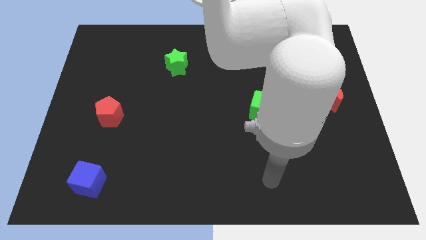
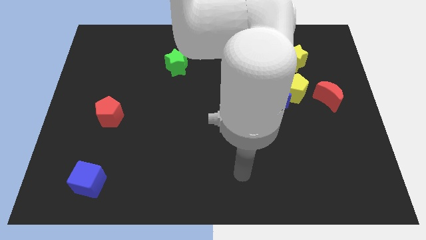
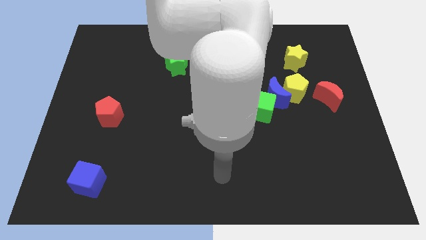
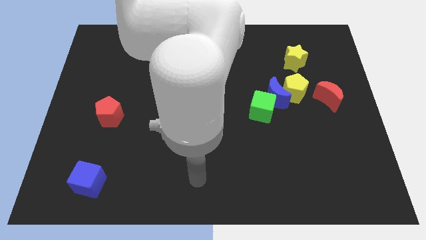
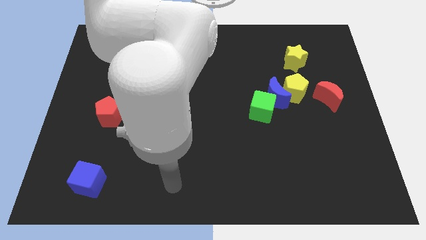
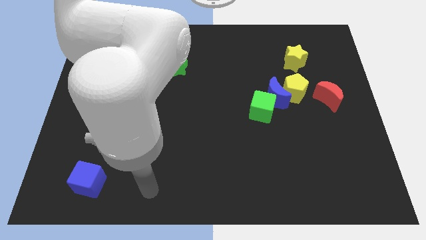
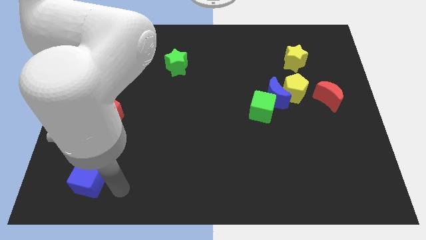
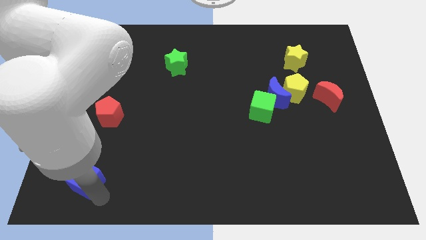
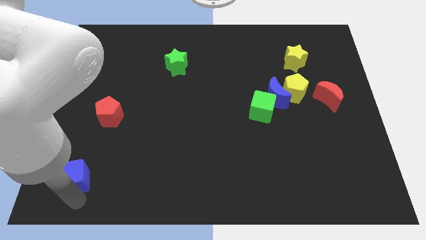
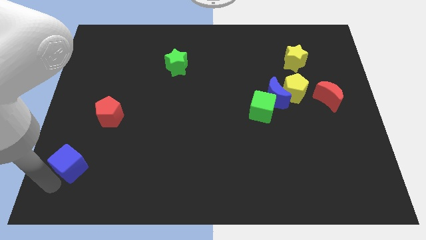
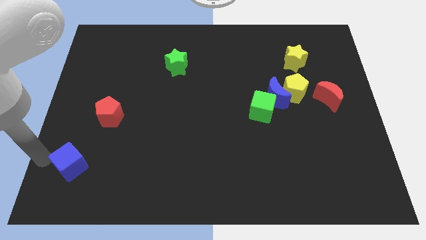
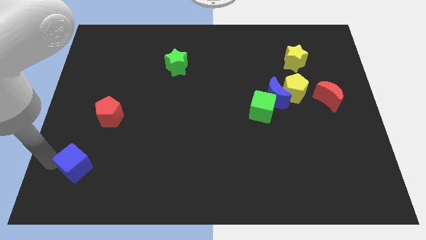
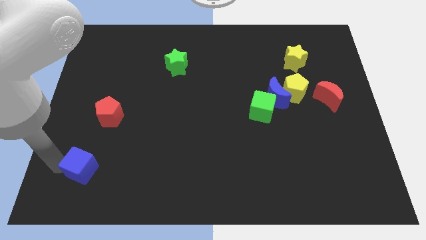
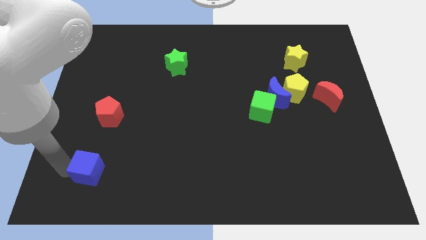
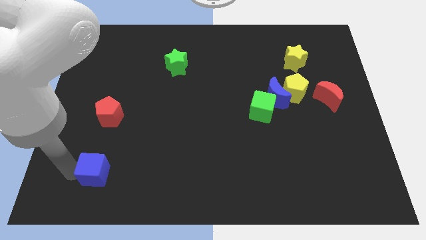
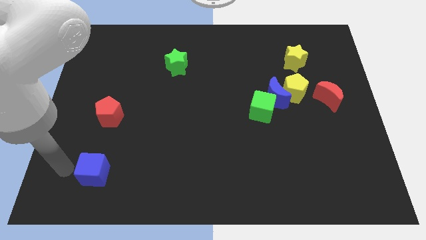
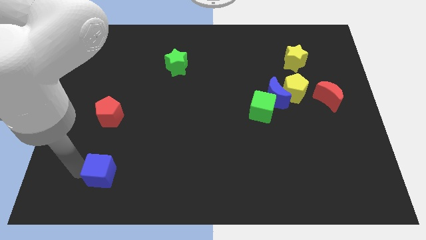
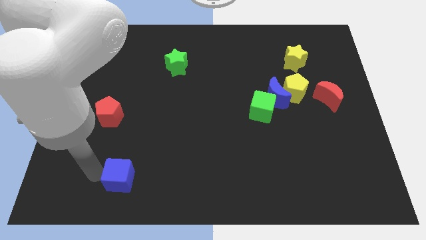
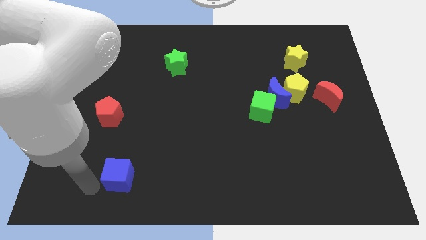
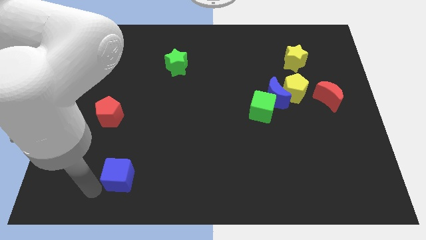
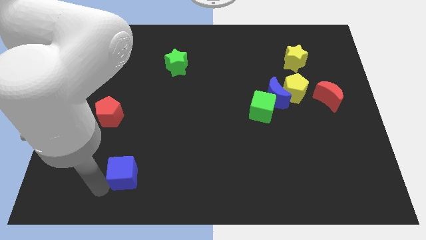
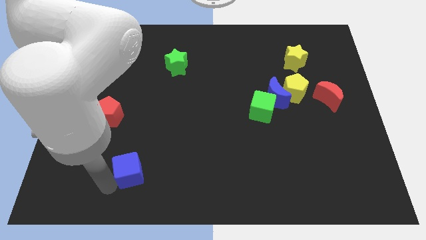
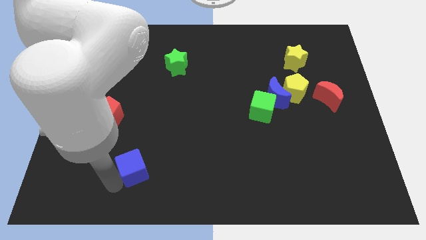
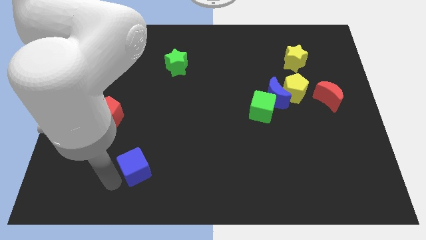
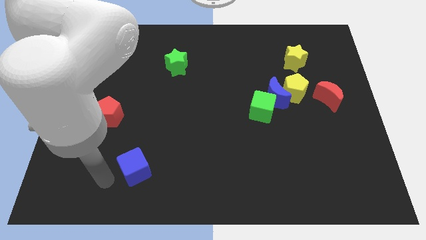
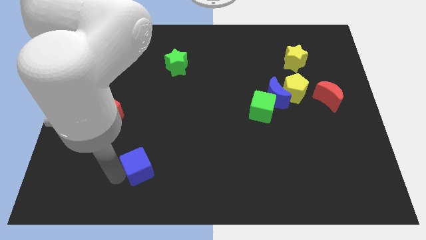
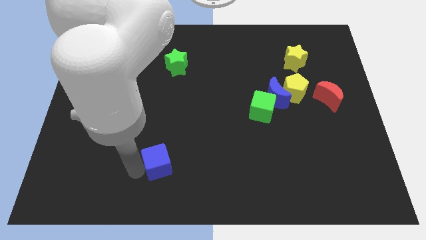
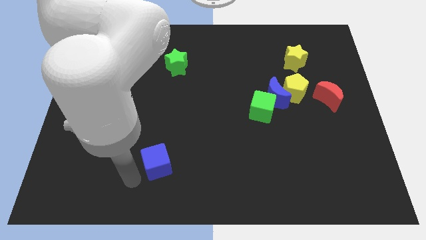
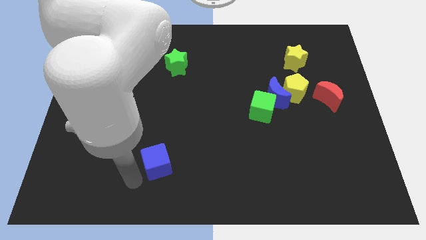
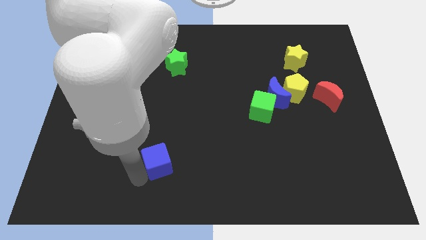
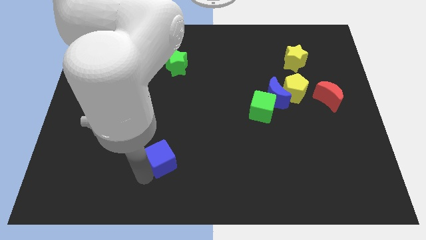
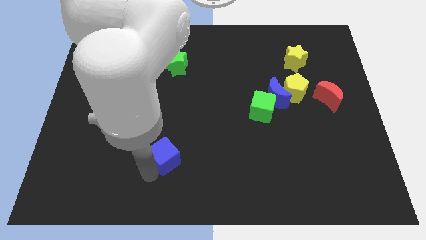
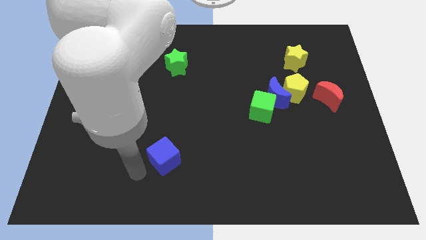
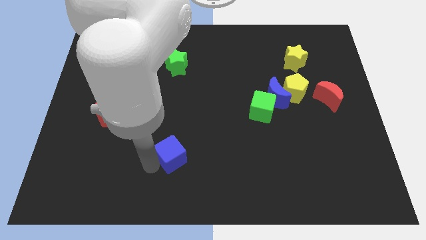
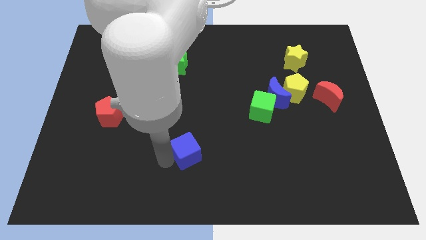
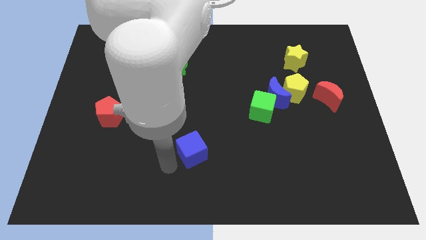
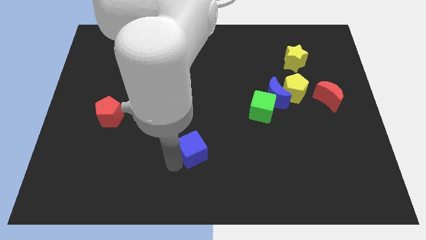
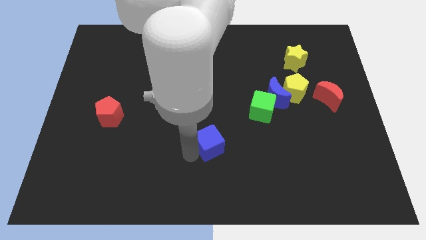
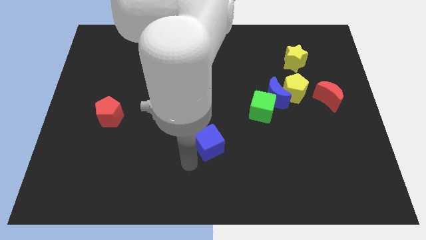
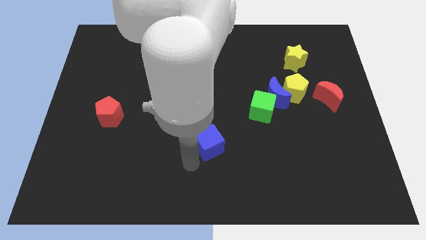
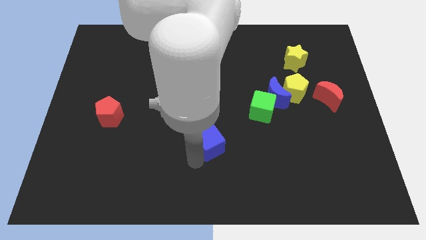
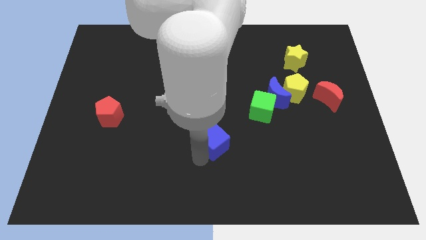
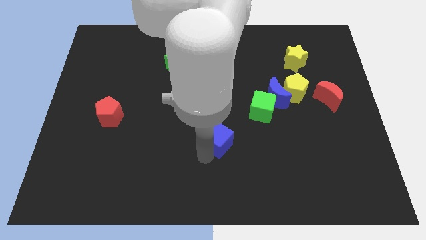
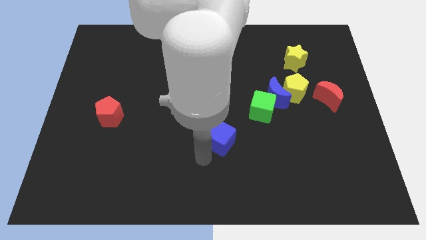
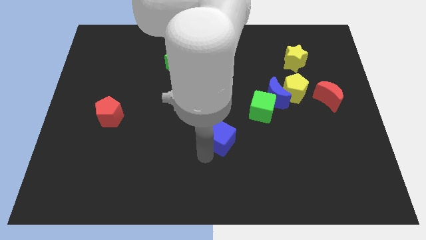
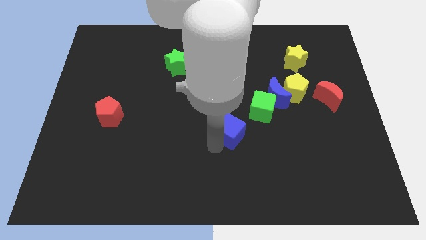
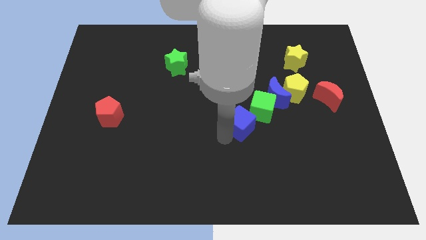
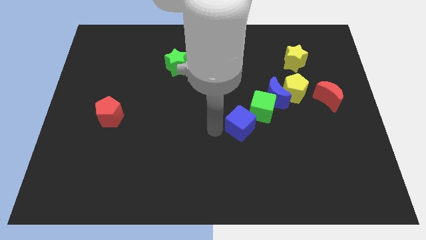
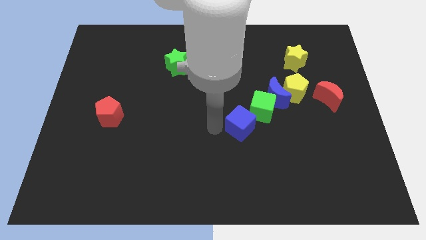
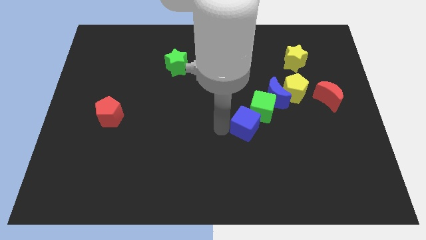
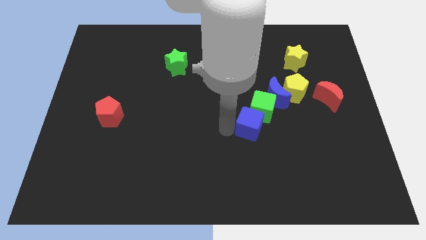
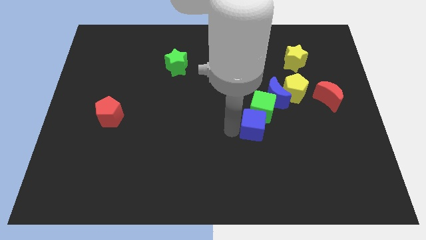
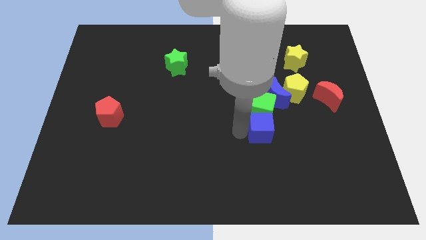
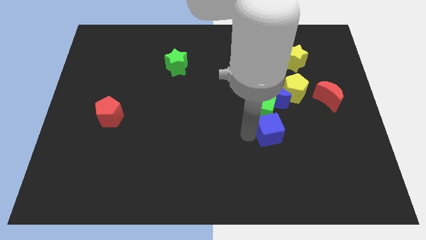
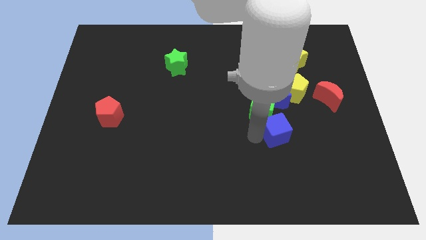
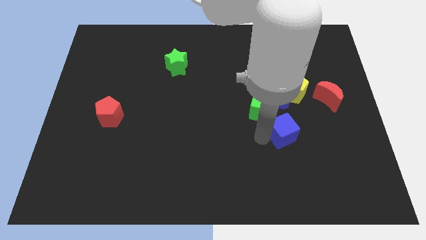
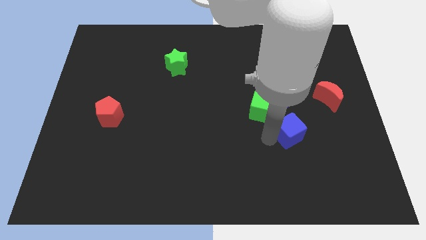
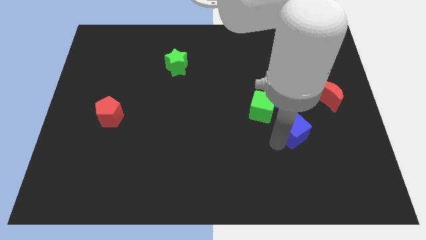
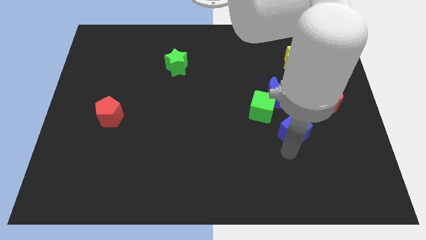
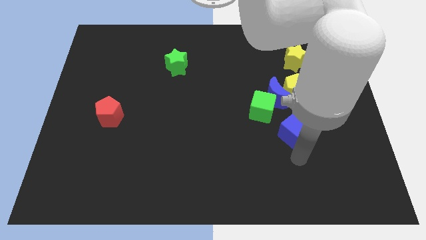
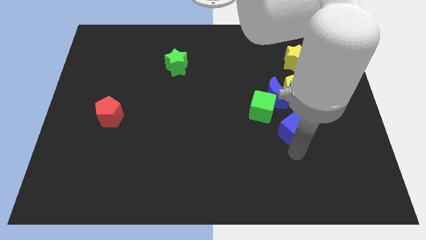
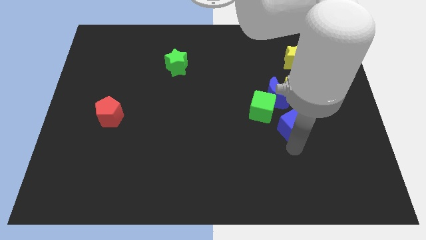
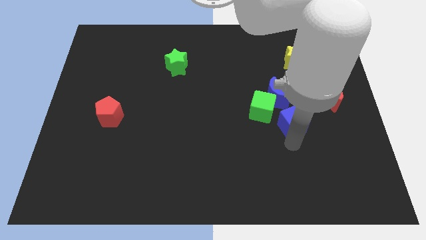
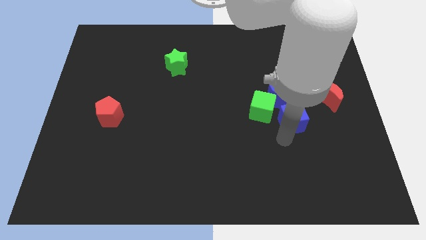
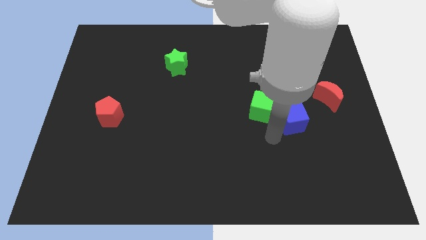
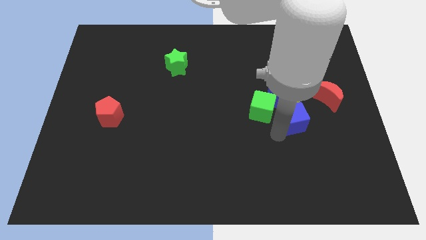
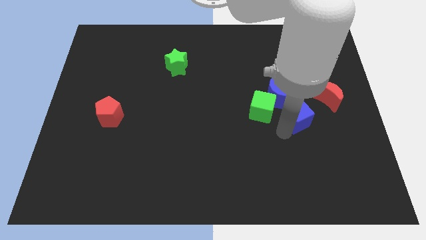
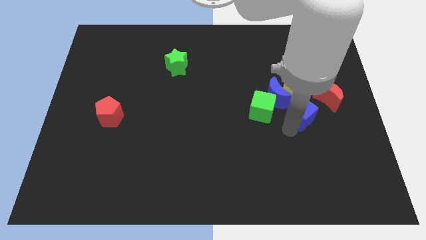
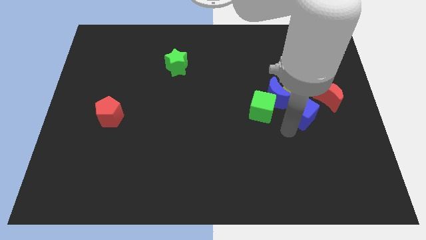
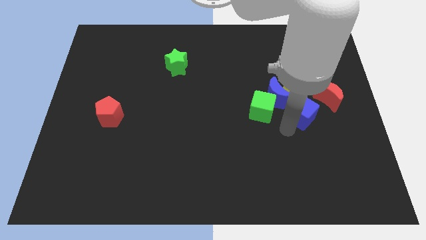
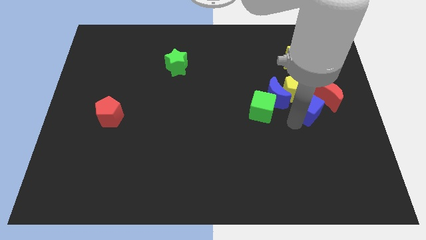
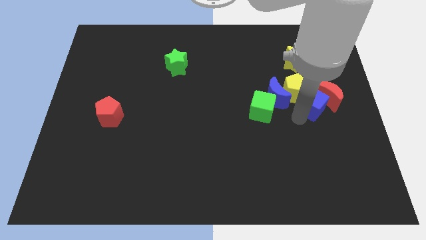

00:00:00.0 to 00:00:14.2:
slide the blue cube close to the red moon

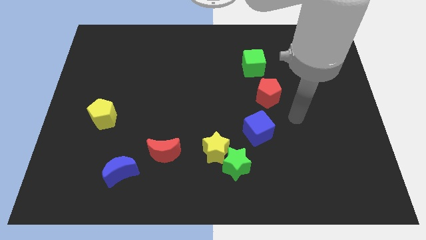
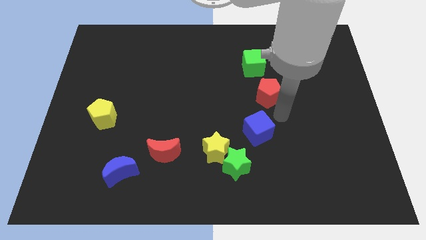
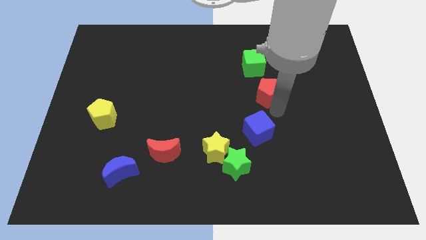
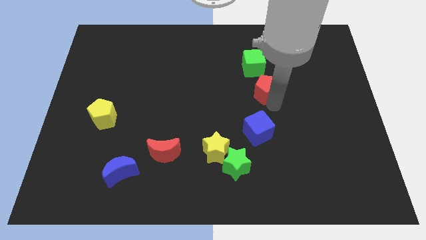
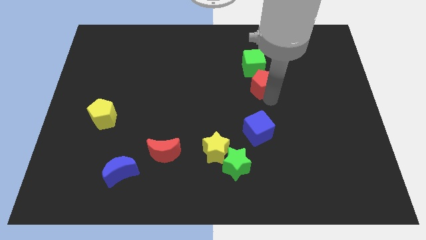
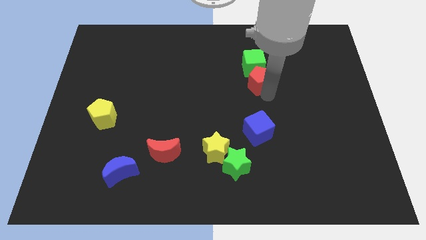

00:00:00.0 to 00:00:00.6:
slide the red pentagon close to the green cube
